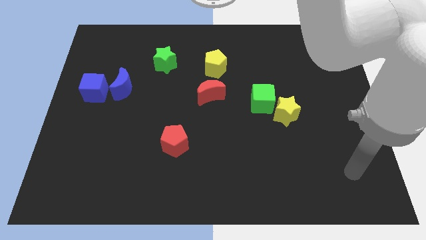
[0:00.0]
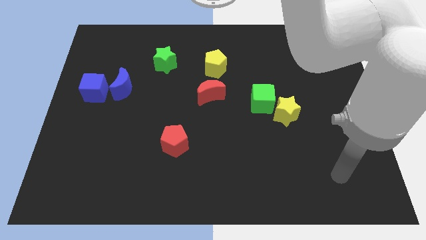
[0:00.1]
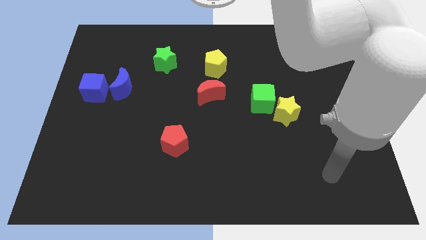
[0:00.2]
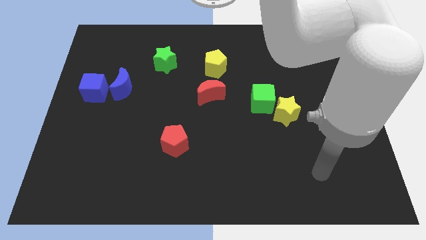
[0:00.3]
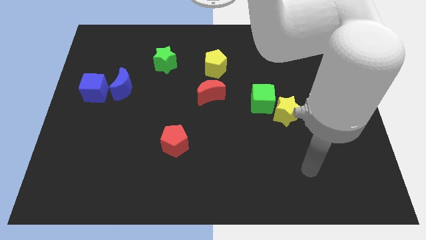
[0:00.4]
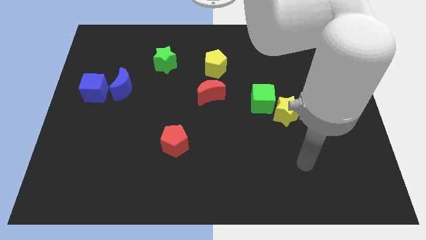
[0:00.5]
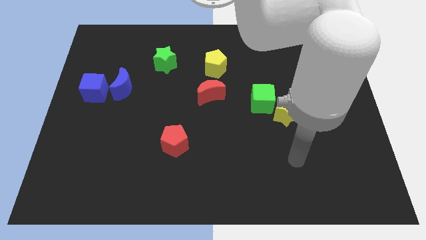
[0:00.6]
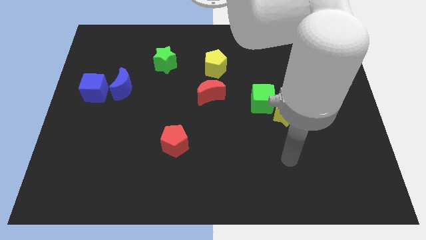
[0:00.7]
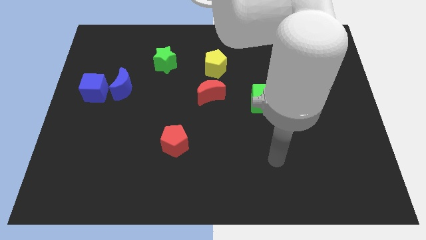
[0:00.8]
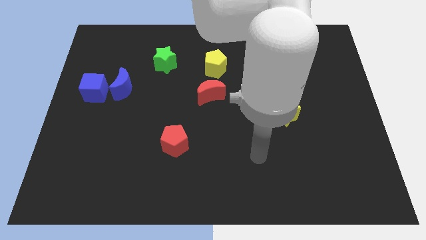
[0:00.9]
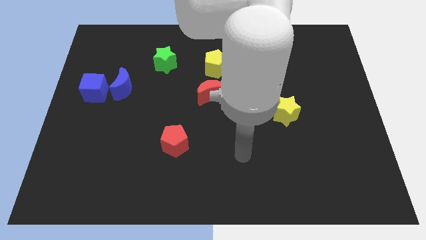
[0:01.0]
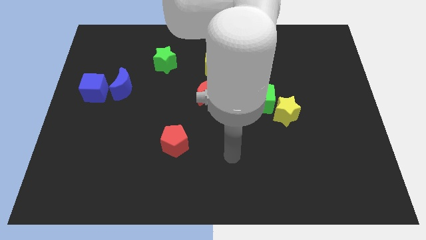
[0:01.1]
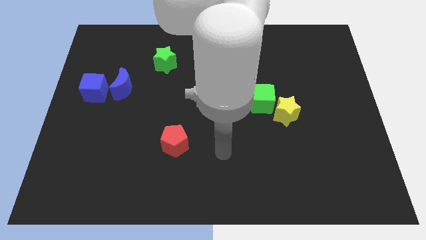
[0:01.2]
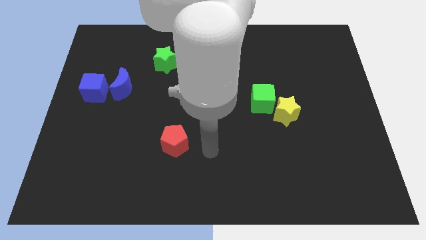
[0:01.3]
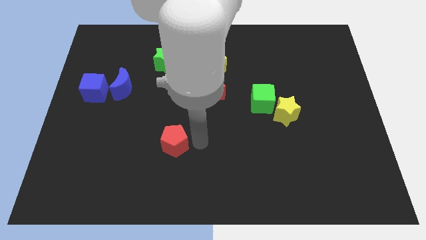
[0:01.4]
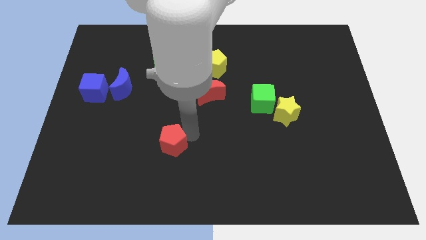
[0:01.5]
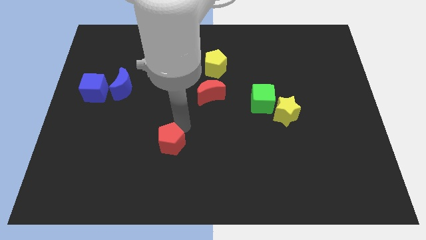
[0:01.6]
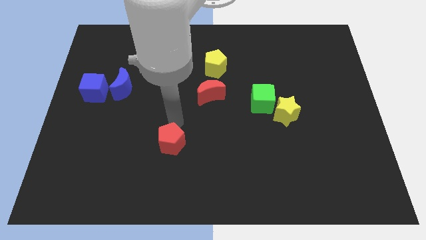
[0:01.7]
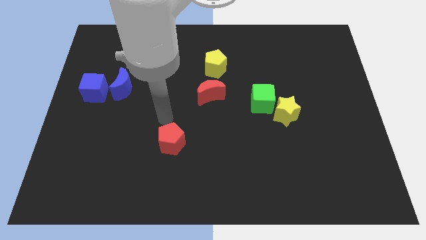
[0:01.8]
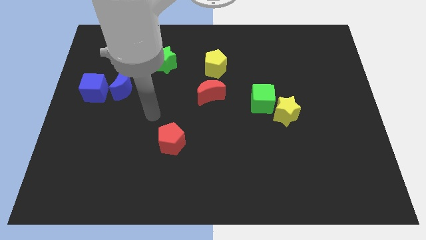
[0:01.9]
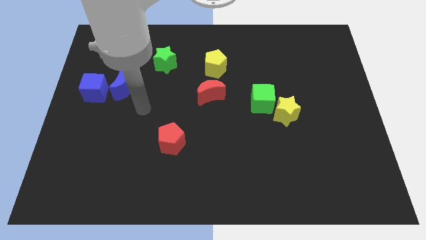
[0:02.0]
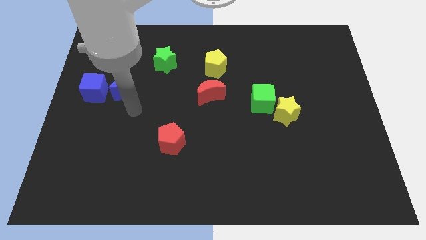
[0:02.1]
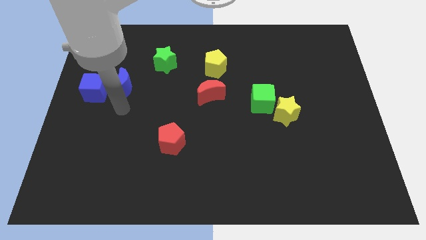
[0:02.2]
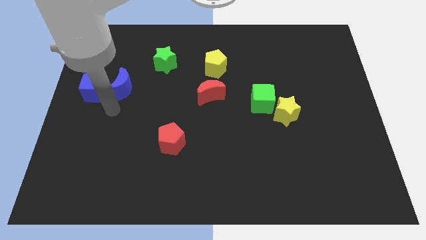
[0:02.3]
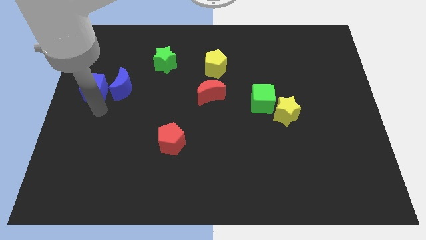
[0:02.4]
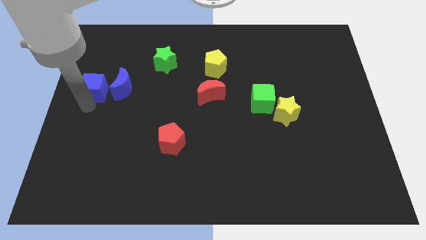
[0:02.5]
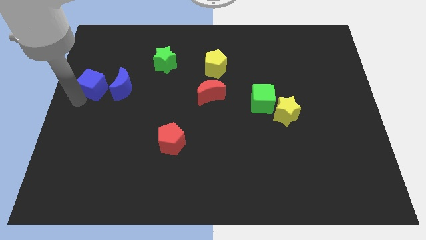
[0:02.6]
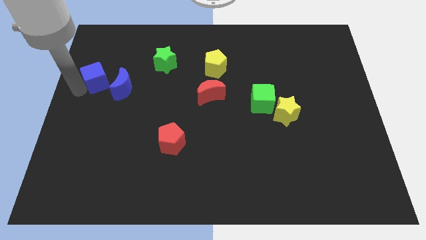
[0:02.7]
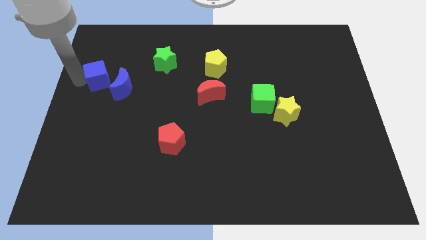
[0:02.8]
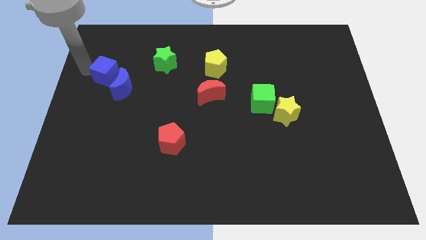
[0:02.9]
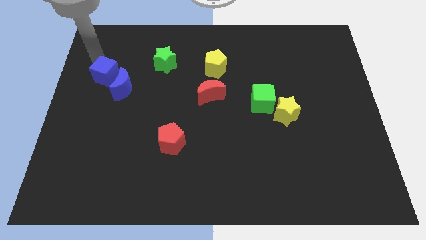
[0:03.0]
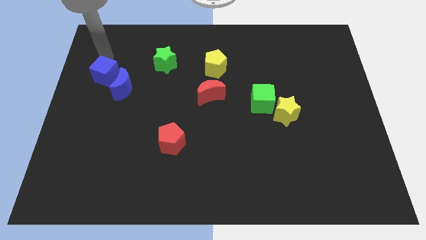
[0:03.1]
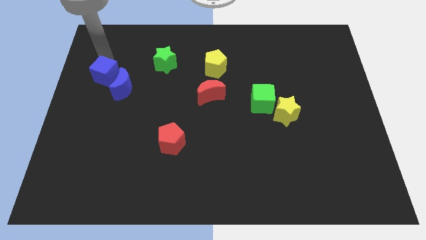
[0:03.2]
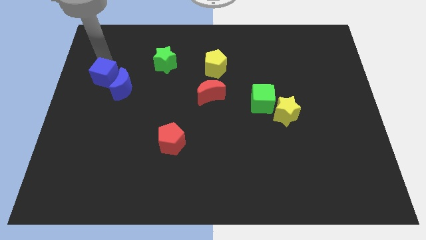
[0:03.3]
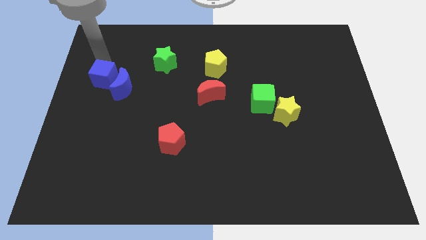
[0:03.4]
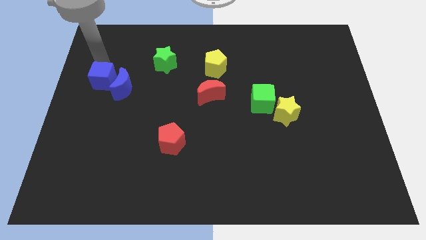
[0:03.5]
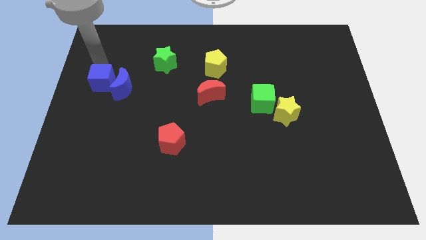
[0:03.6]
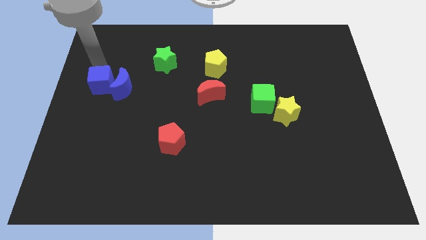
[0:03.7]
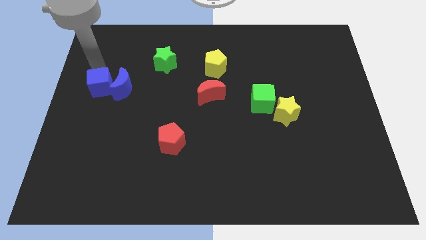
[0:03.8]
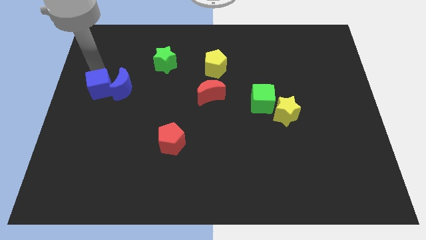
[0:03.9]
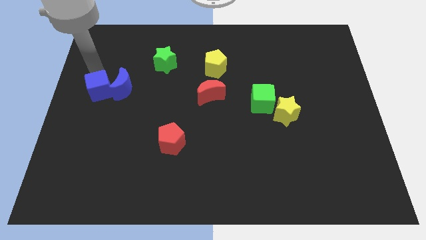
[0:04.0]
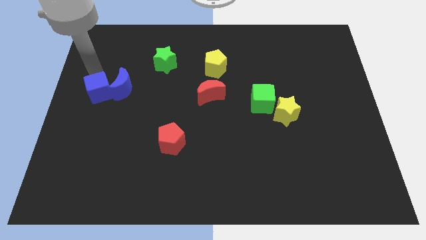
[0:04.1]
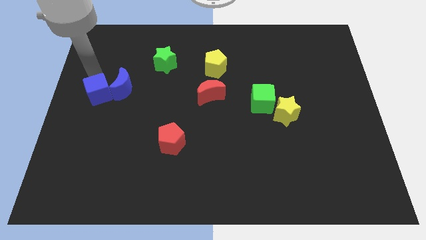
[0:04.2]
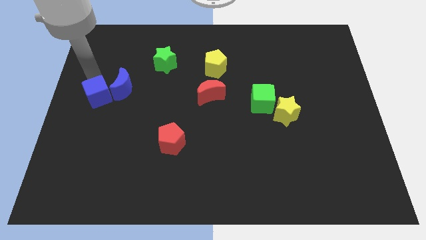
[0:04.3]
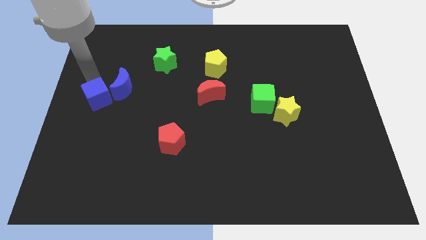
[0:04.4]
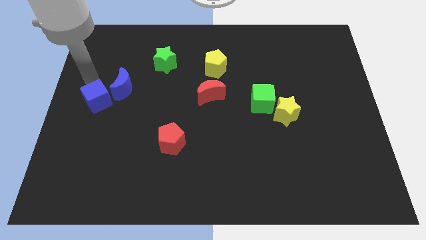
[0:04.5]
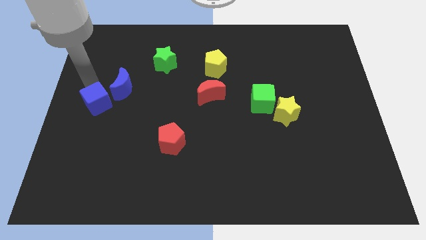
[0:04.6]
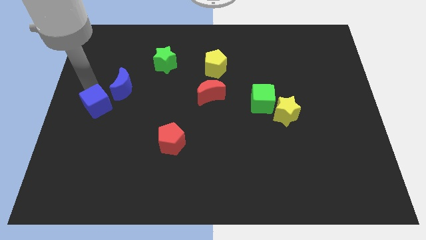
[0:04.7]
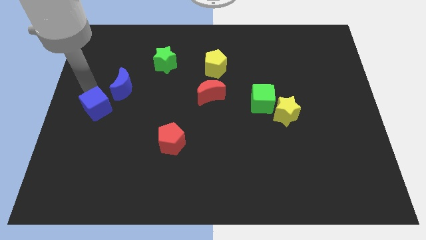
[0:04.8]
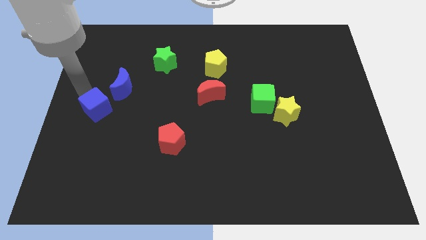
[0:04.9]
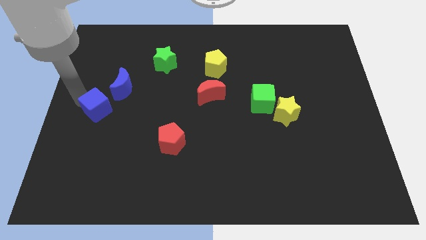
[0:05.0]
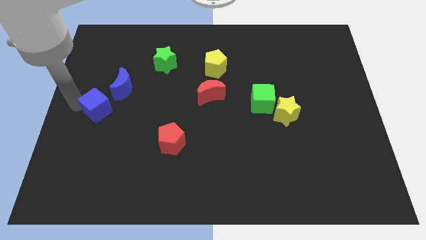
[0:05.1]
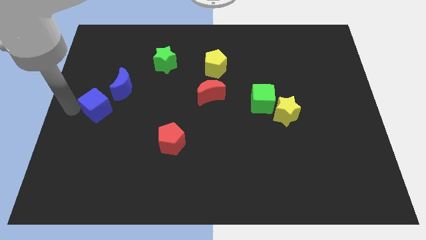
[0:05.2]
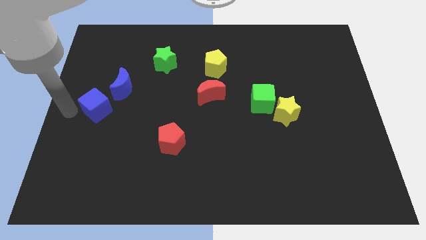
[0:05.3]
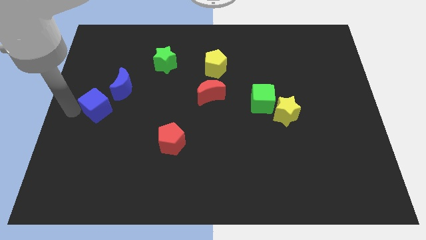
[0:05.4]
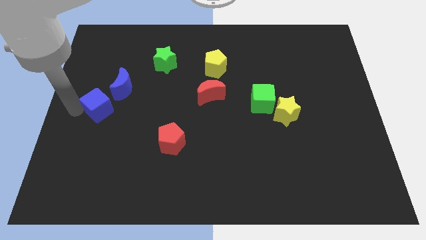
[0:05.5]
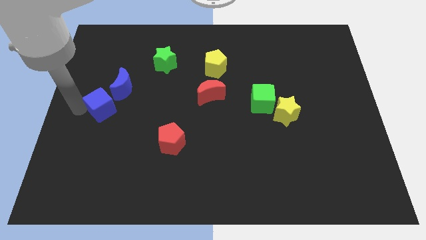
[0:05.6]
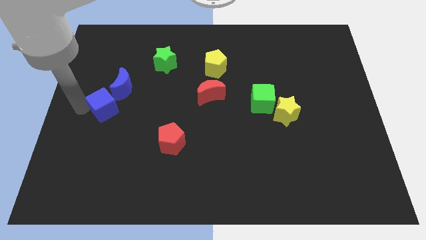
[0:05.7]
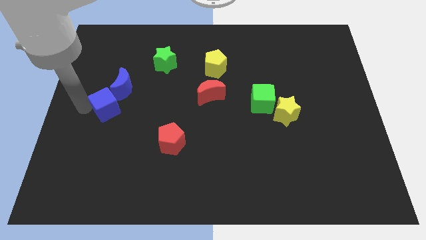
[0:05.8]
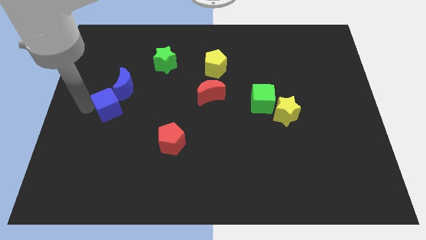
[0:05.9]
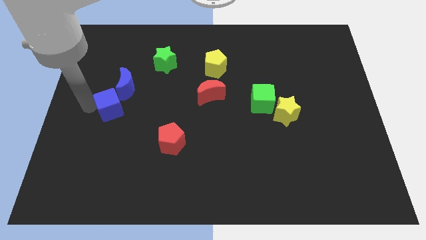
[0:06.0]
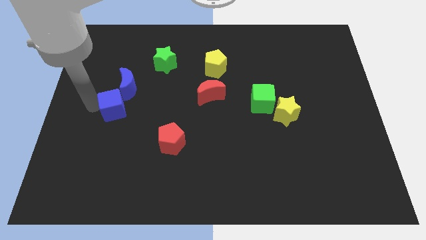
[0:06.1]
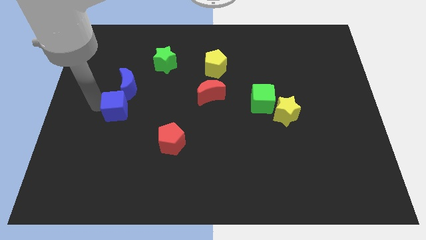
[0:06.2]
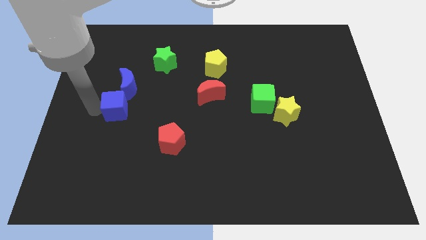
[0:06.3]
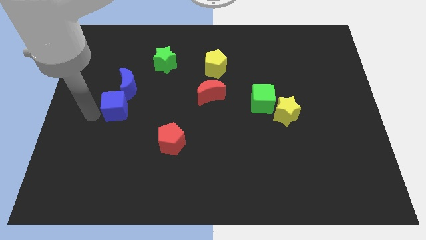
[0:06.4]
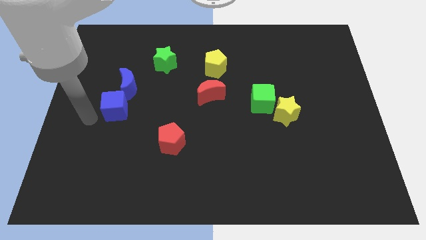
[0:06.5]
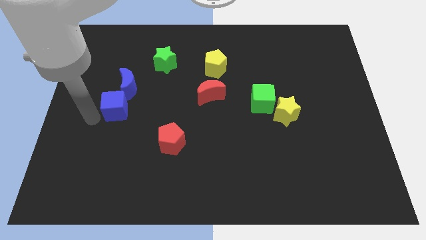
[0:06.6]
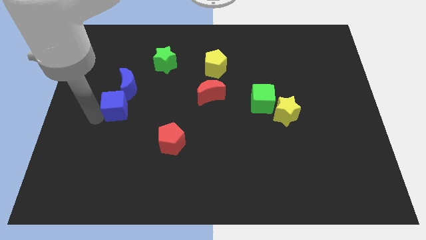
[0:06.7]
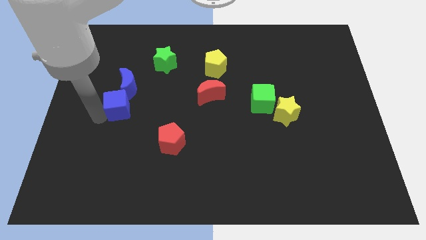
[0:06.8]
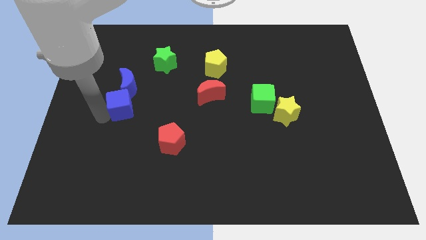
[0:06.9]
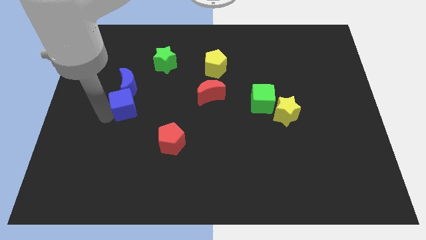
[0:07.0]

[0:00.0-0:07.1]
slightly slide the blue cube right

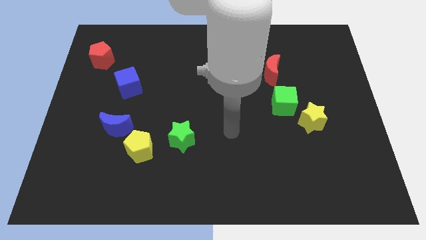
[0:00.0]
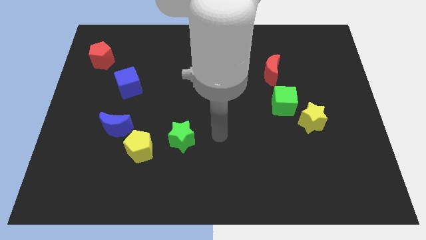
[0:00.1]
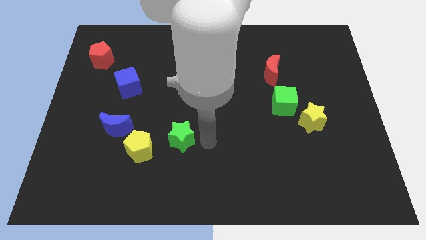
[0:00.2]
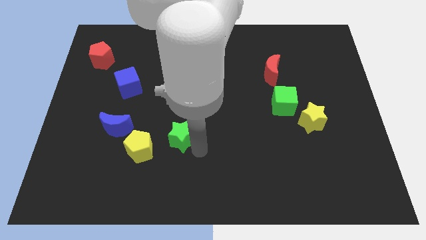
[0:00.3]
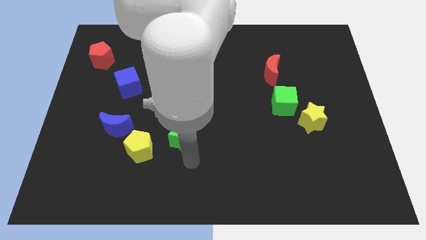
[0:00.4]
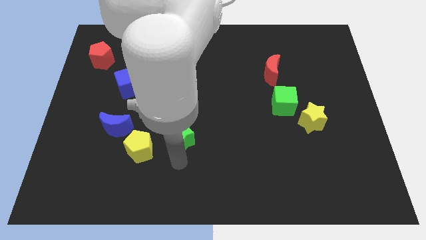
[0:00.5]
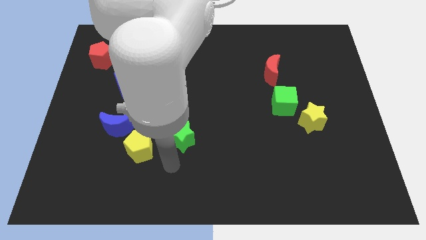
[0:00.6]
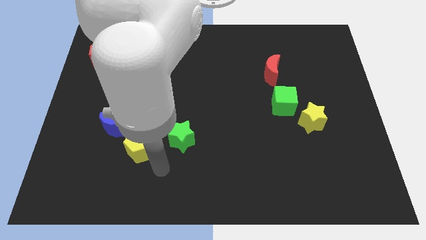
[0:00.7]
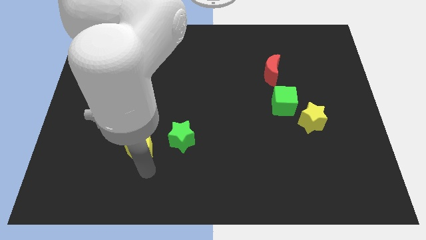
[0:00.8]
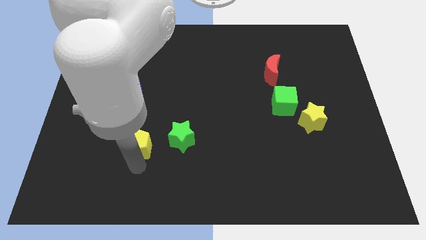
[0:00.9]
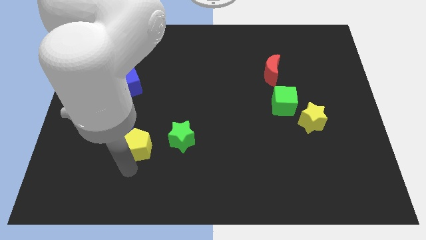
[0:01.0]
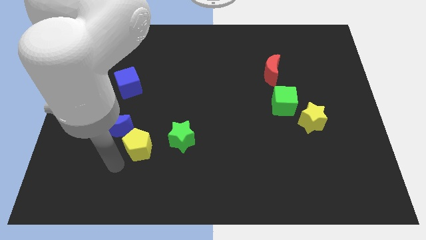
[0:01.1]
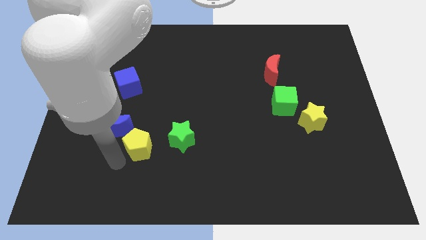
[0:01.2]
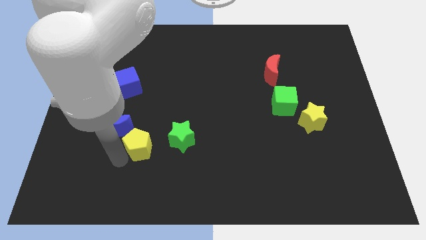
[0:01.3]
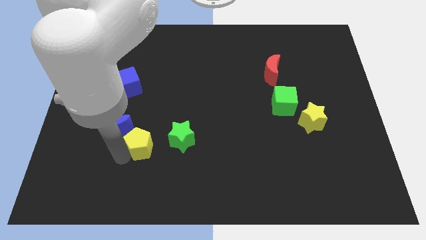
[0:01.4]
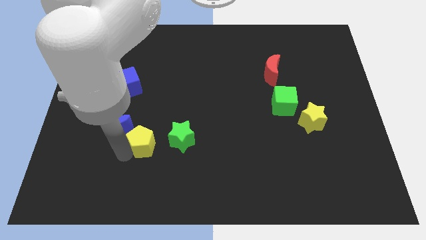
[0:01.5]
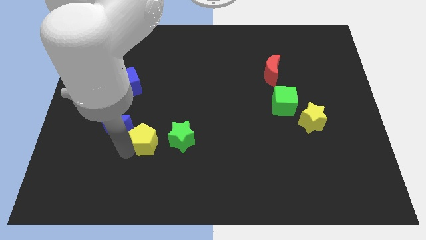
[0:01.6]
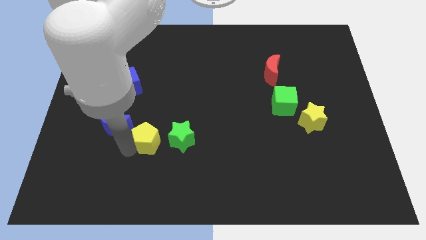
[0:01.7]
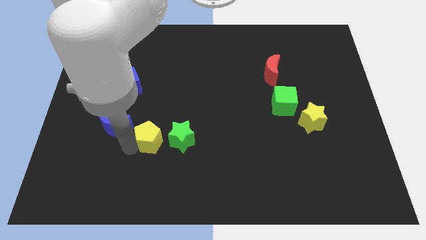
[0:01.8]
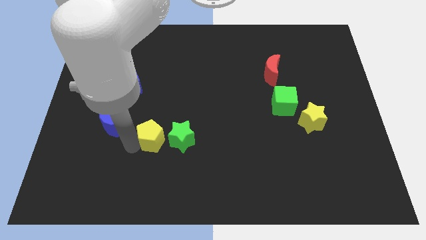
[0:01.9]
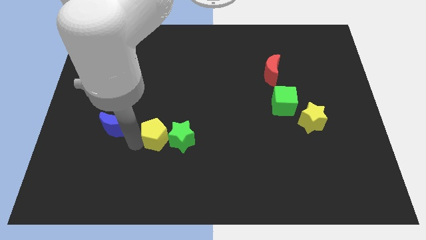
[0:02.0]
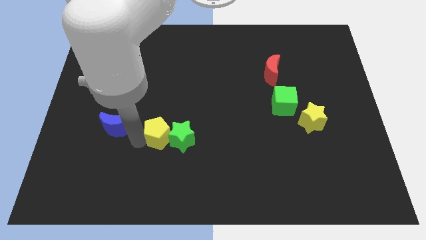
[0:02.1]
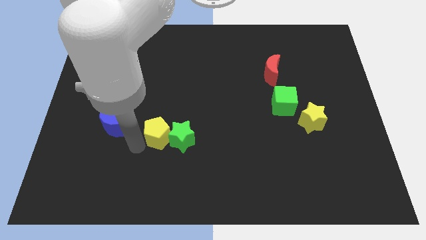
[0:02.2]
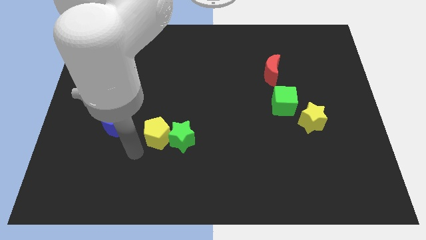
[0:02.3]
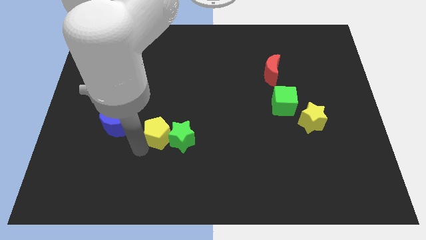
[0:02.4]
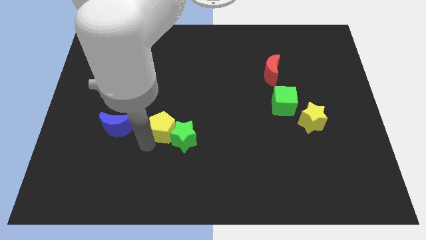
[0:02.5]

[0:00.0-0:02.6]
slightly slide the yellow pentagon diagonally upwards and to the right
